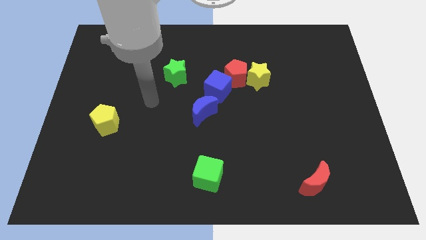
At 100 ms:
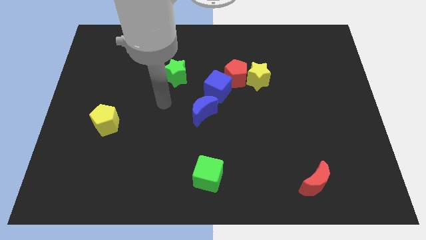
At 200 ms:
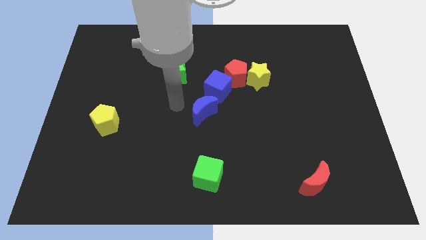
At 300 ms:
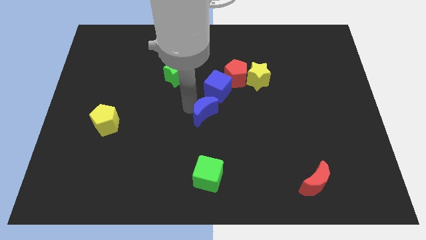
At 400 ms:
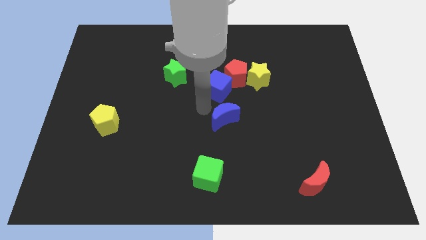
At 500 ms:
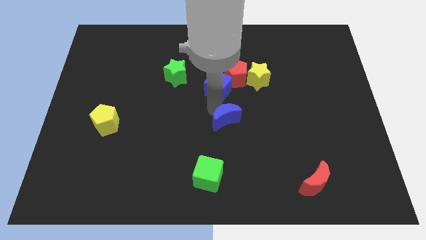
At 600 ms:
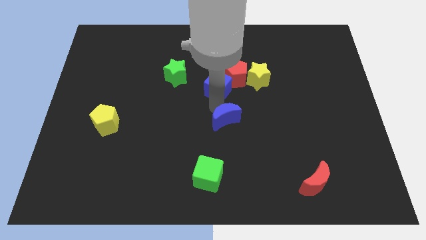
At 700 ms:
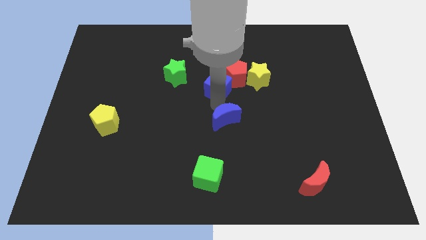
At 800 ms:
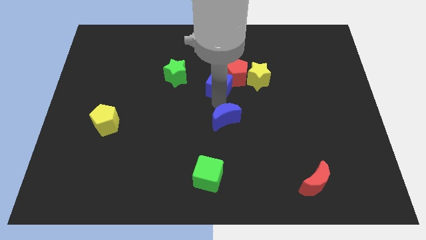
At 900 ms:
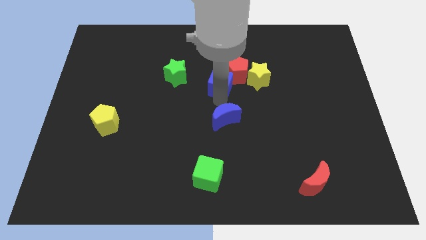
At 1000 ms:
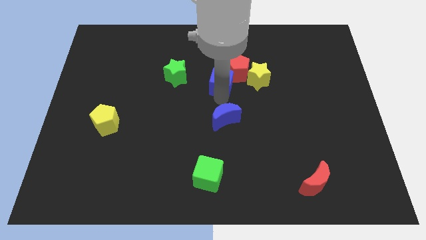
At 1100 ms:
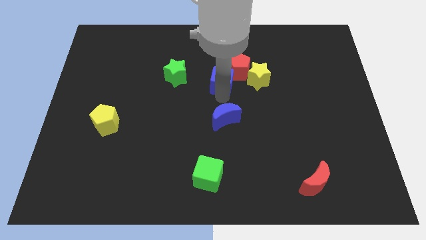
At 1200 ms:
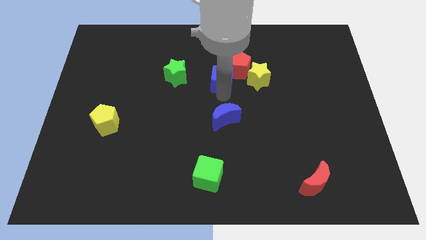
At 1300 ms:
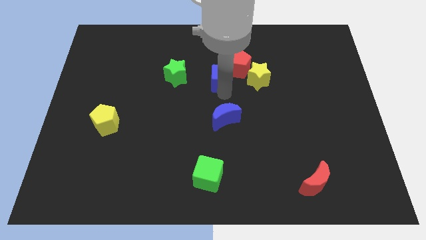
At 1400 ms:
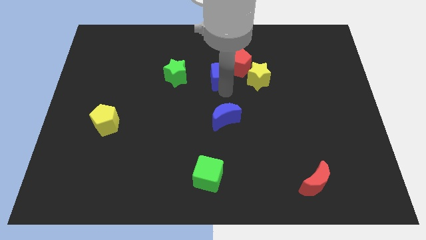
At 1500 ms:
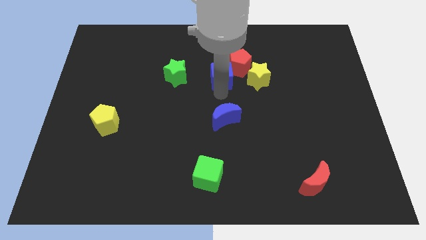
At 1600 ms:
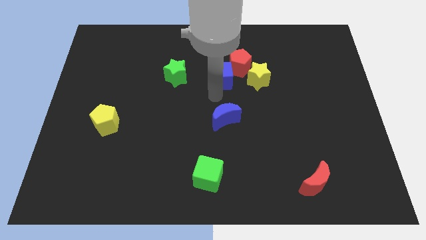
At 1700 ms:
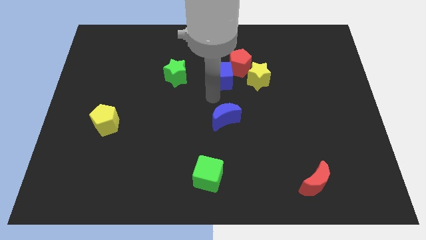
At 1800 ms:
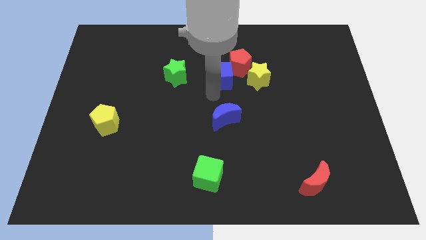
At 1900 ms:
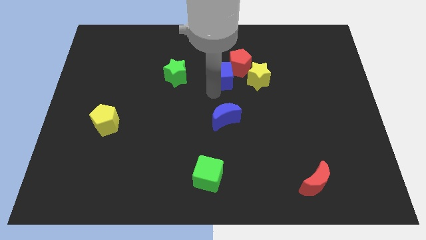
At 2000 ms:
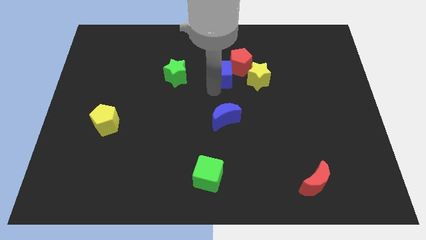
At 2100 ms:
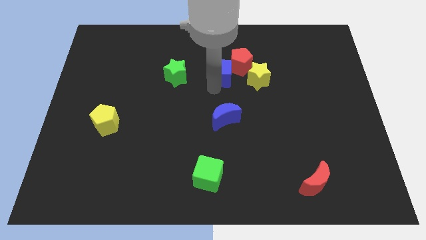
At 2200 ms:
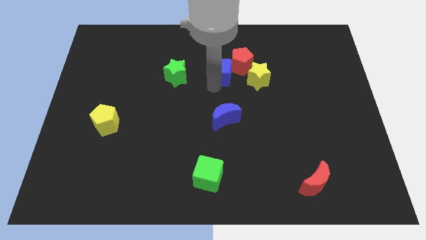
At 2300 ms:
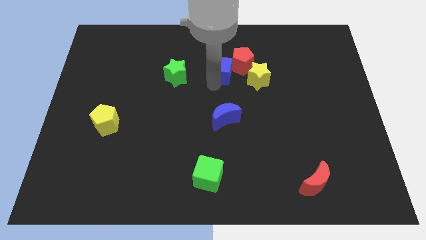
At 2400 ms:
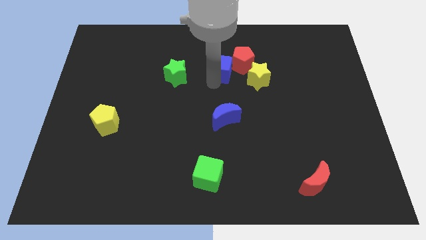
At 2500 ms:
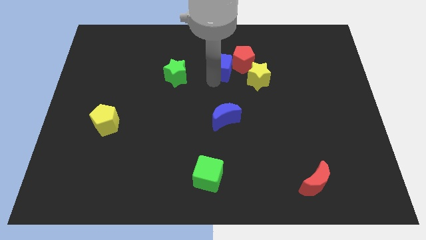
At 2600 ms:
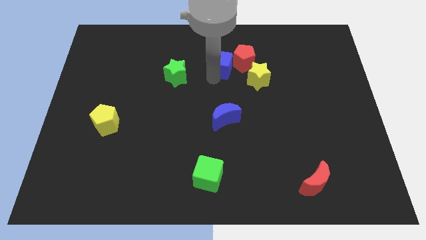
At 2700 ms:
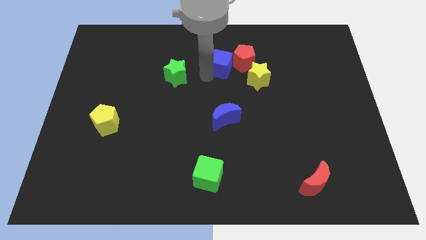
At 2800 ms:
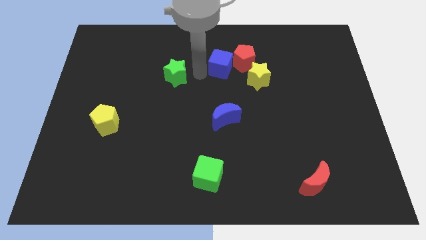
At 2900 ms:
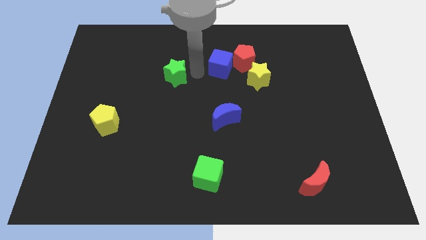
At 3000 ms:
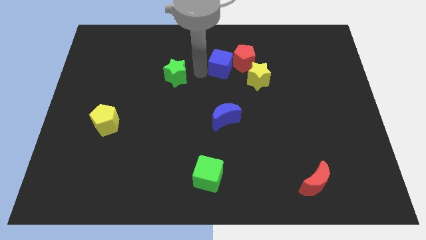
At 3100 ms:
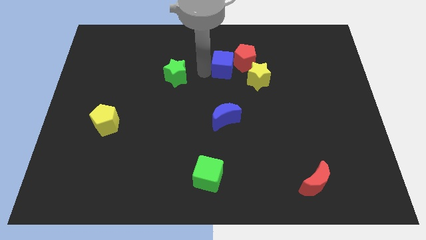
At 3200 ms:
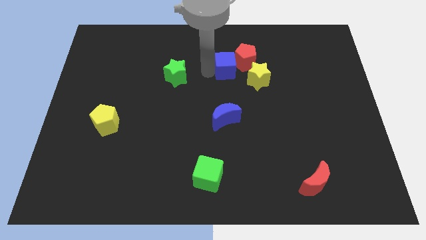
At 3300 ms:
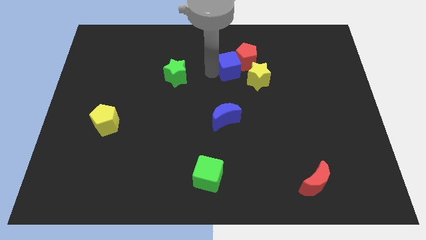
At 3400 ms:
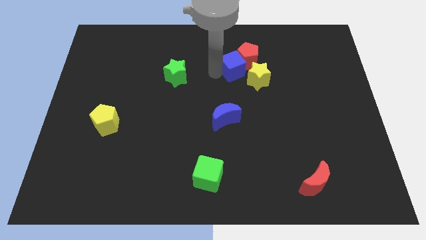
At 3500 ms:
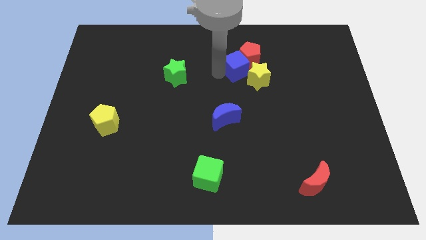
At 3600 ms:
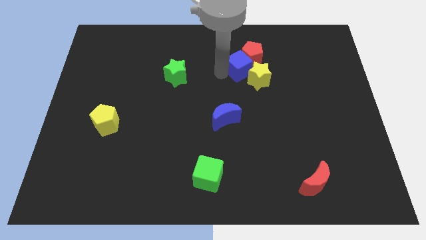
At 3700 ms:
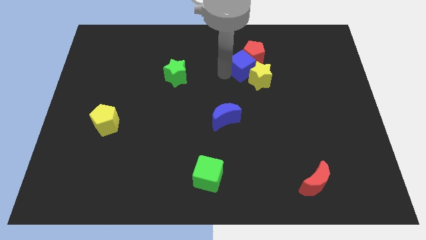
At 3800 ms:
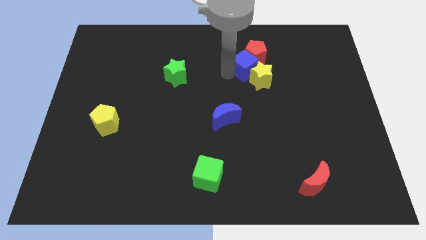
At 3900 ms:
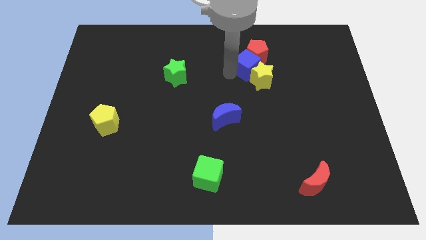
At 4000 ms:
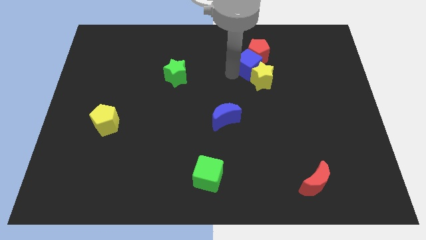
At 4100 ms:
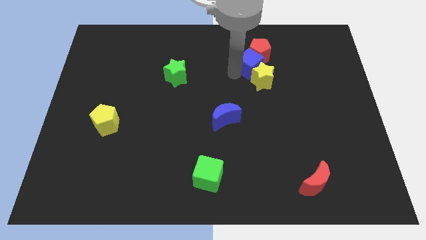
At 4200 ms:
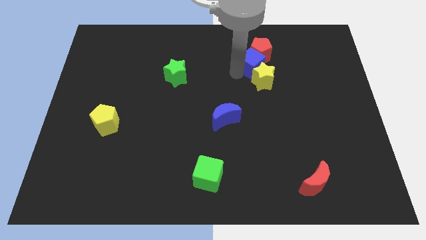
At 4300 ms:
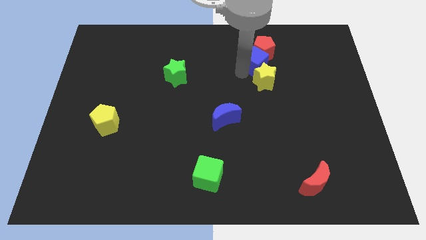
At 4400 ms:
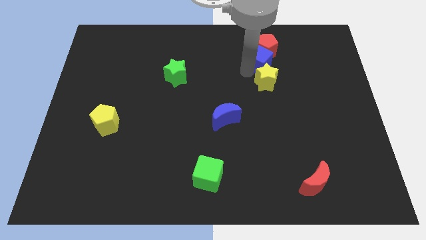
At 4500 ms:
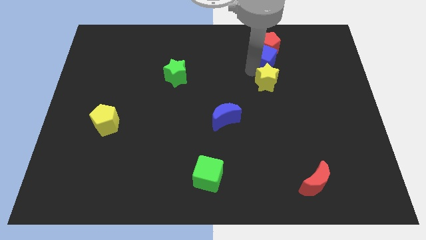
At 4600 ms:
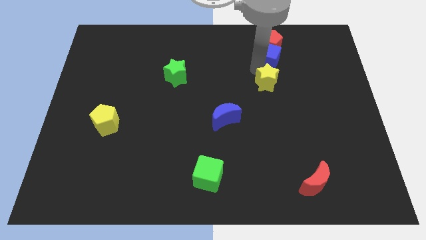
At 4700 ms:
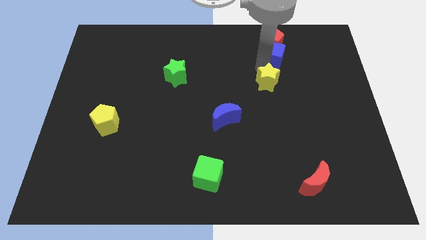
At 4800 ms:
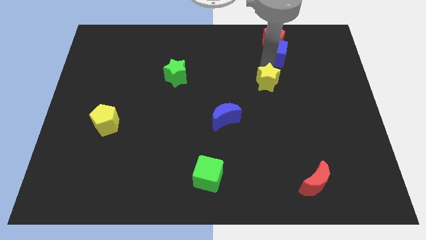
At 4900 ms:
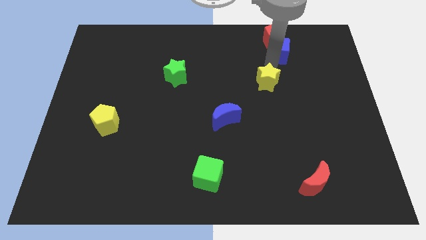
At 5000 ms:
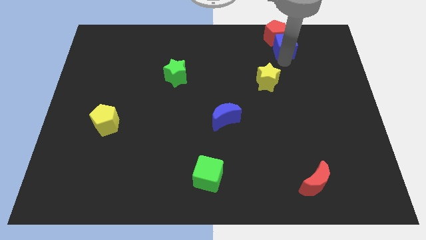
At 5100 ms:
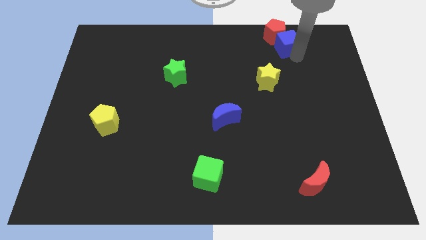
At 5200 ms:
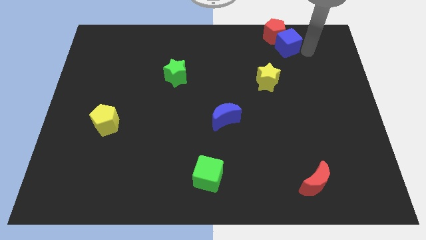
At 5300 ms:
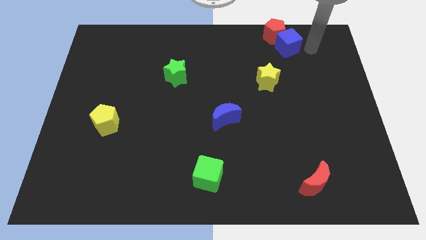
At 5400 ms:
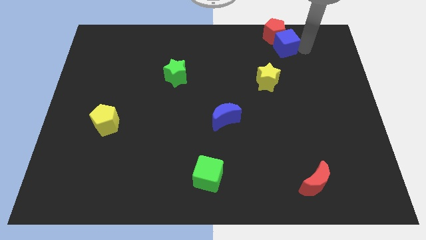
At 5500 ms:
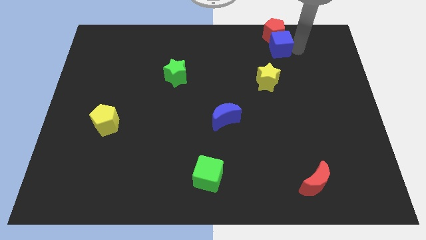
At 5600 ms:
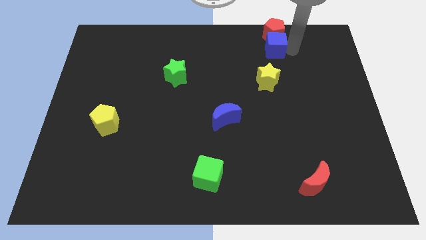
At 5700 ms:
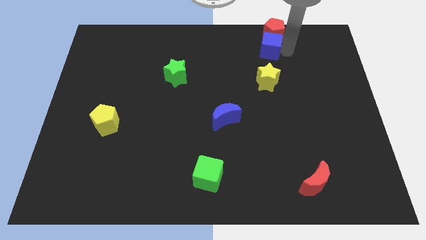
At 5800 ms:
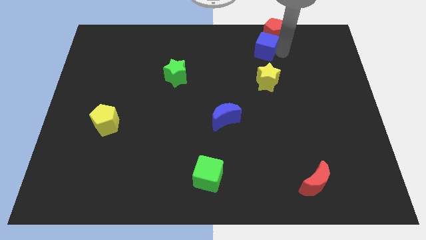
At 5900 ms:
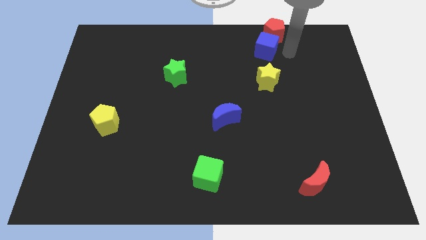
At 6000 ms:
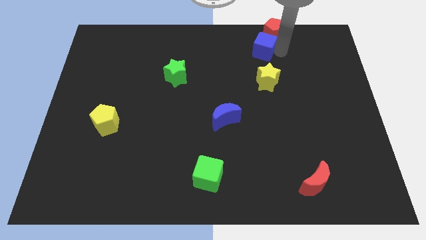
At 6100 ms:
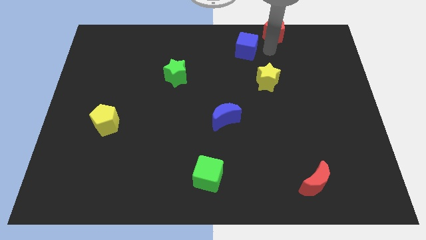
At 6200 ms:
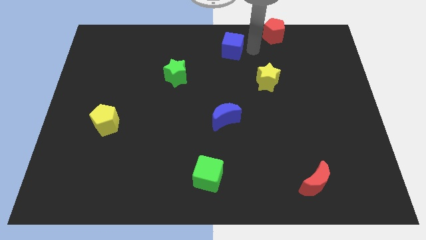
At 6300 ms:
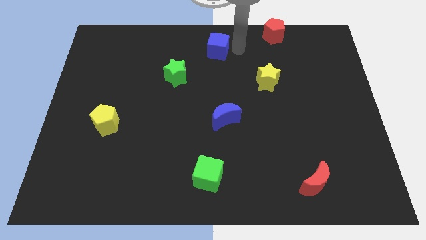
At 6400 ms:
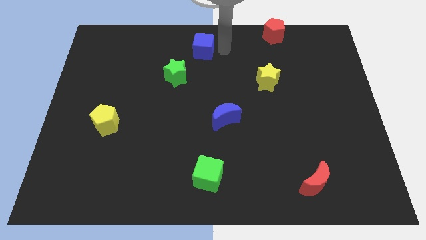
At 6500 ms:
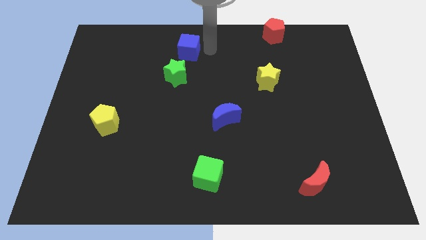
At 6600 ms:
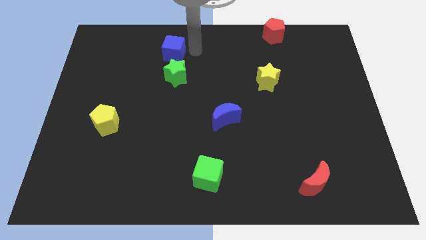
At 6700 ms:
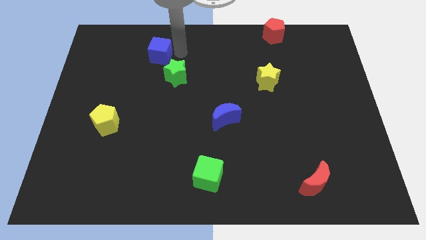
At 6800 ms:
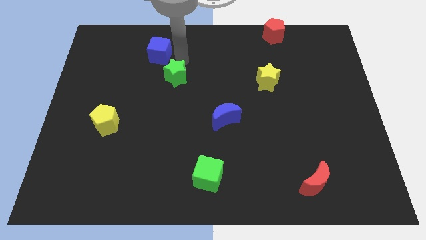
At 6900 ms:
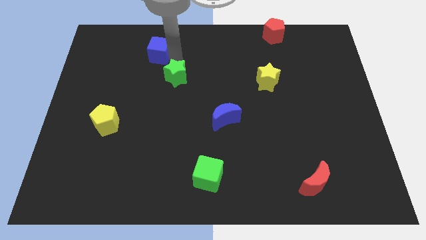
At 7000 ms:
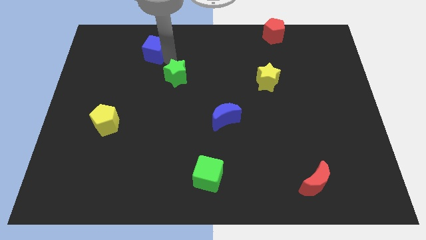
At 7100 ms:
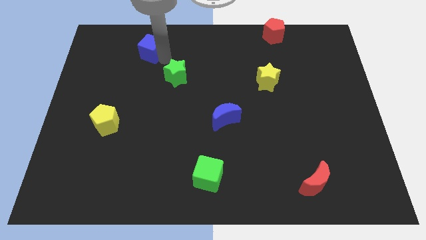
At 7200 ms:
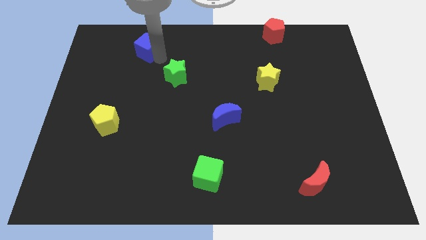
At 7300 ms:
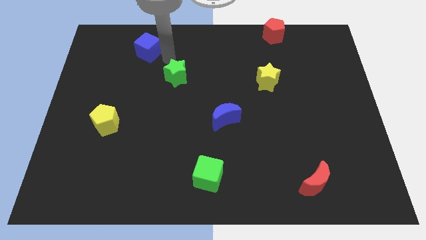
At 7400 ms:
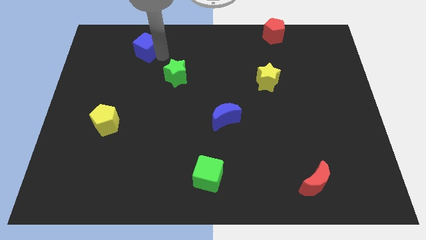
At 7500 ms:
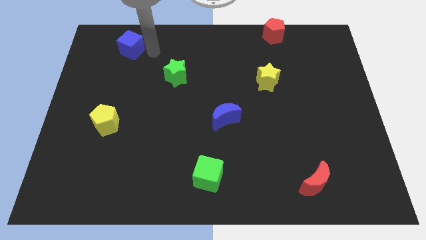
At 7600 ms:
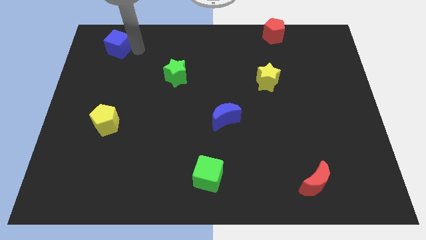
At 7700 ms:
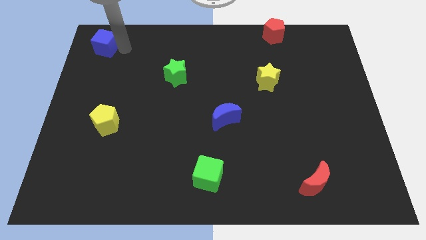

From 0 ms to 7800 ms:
push the blue cube to the top left corner
